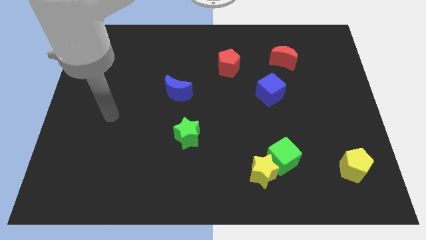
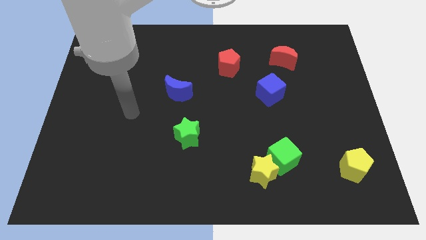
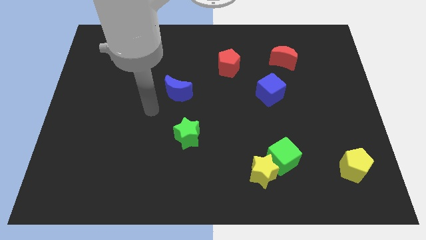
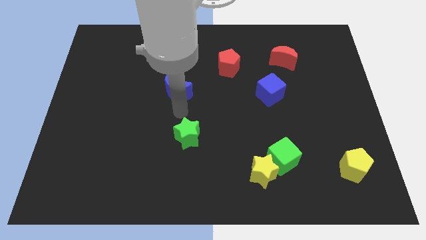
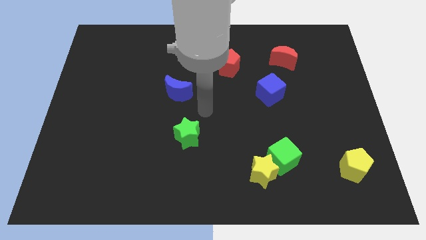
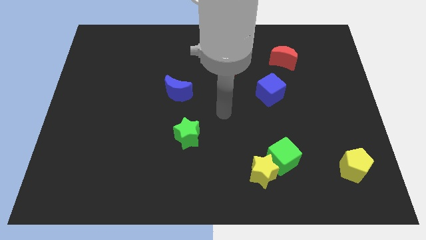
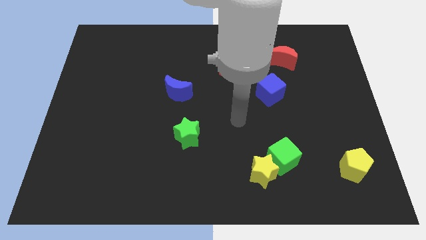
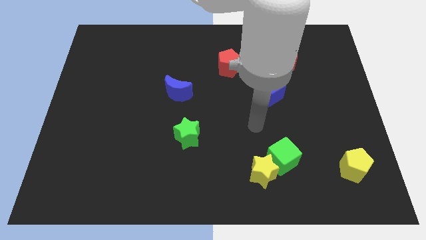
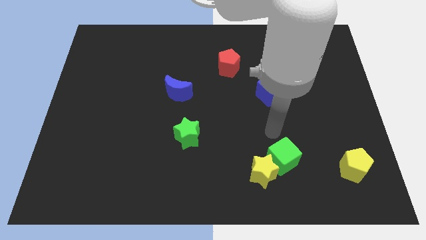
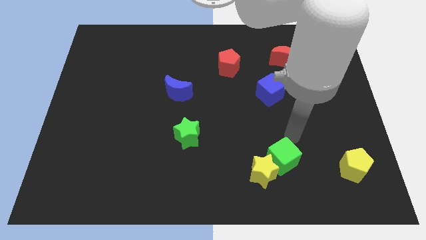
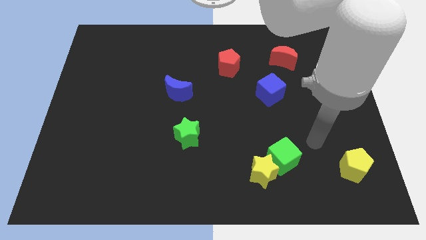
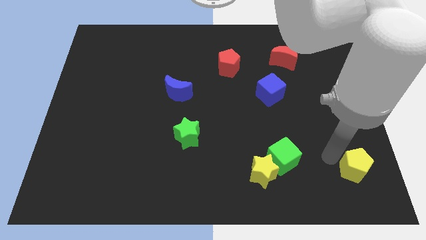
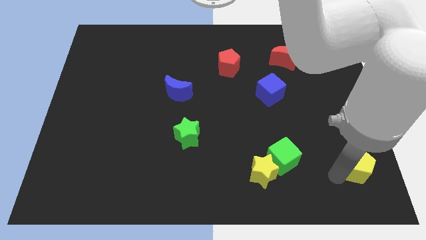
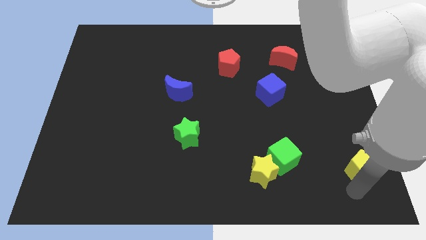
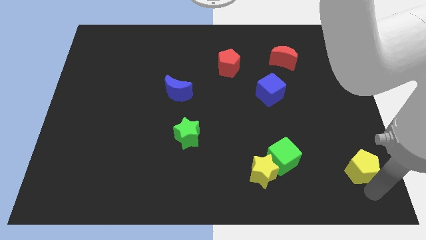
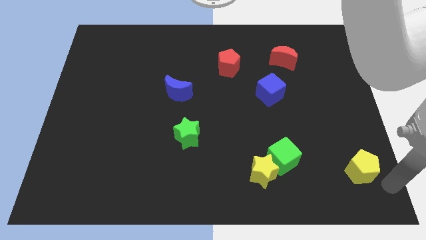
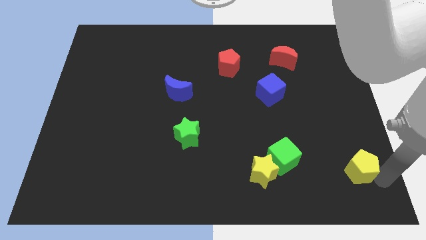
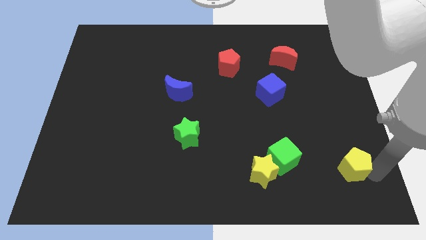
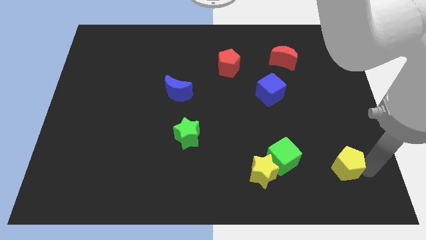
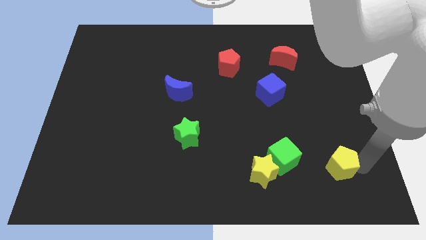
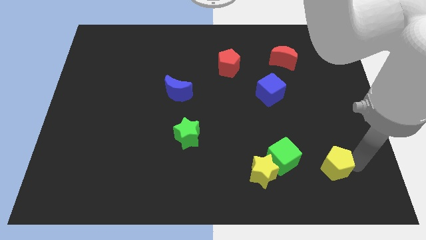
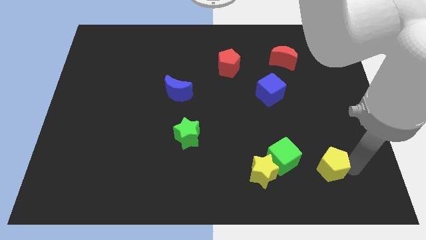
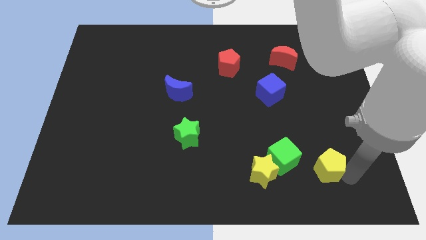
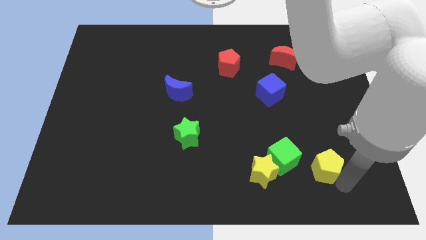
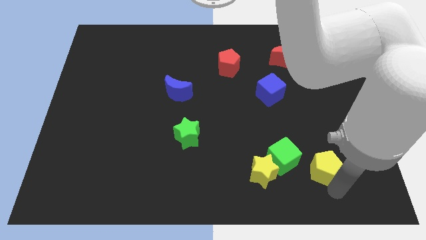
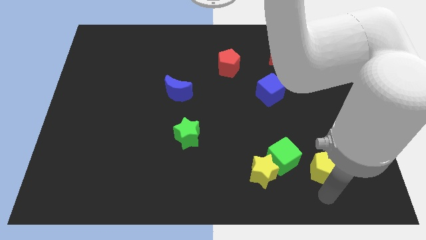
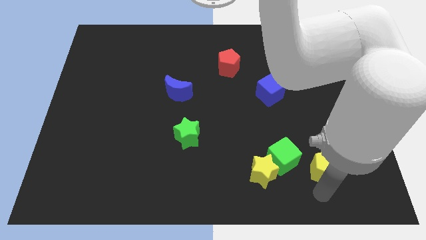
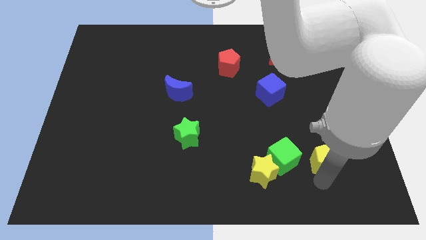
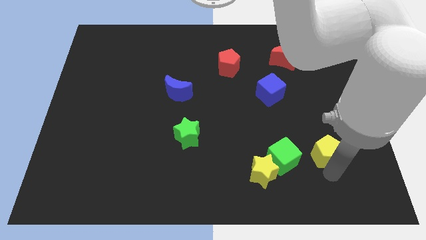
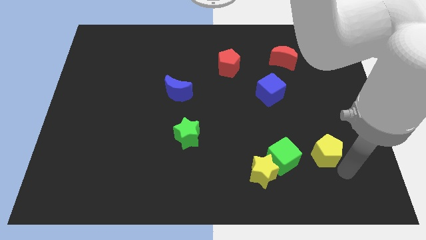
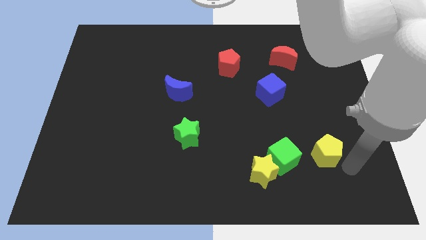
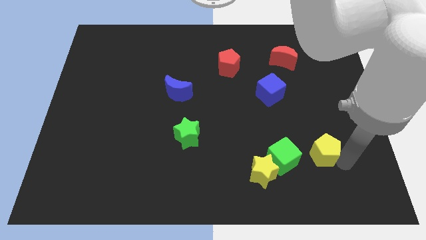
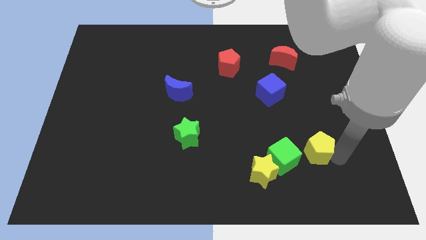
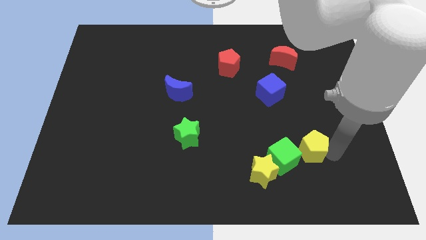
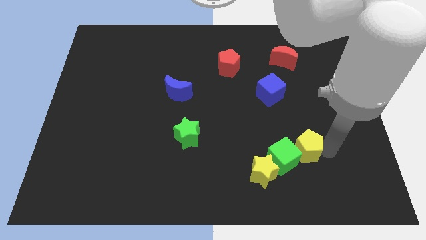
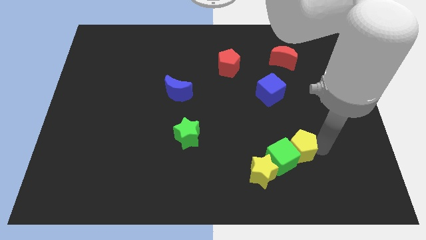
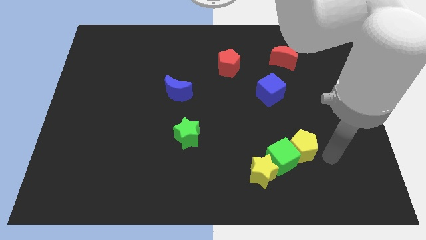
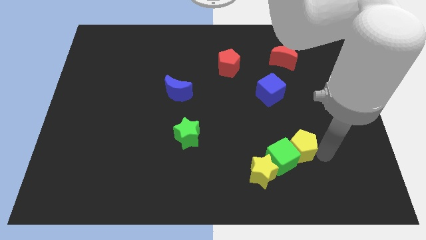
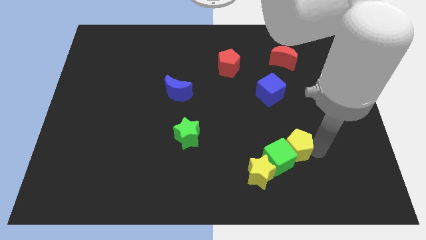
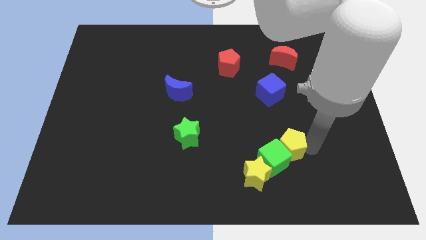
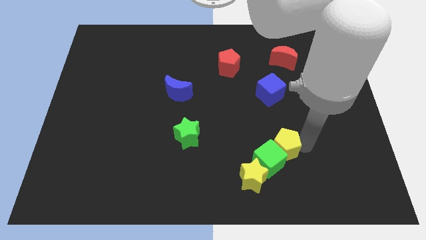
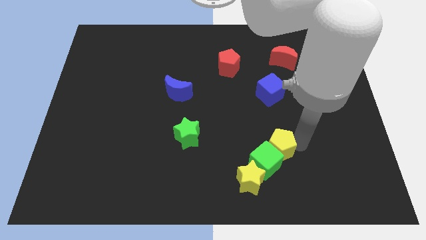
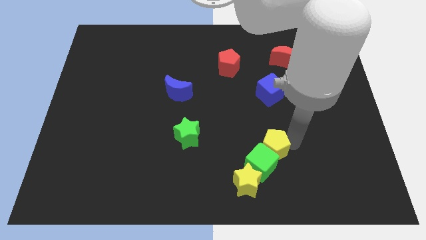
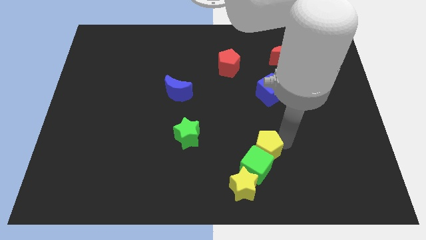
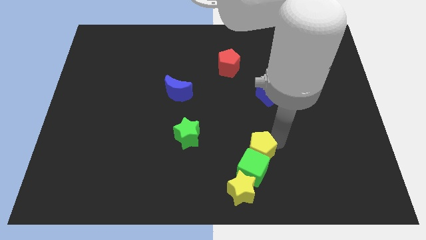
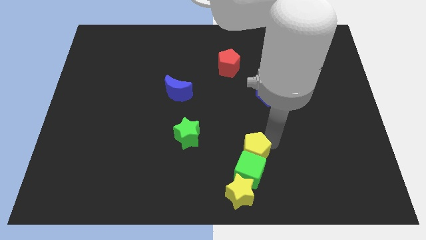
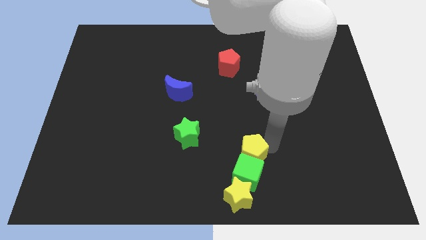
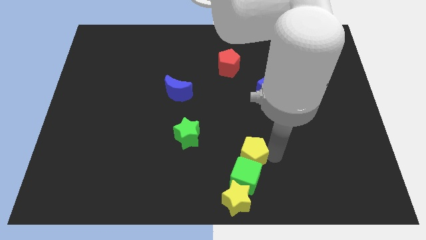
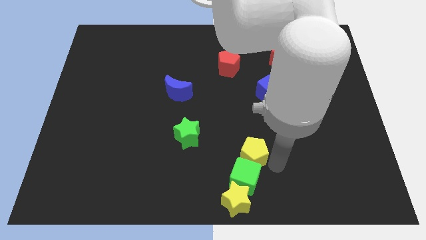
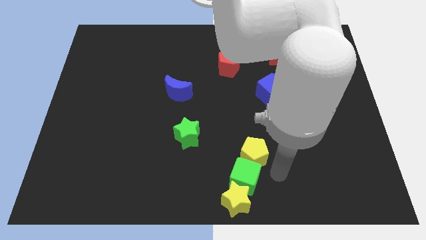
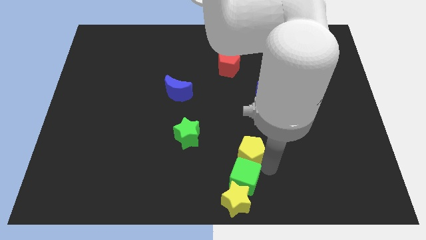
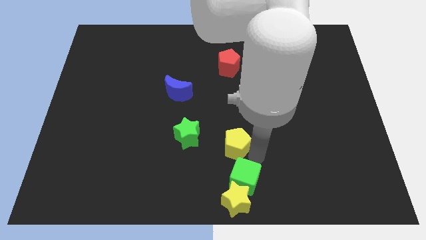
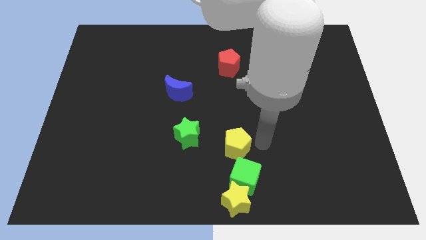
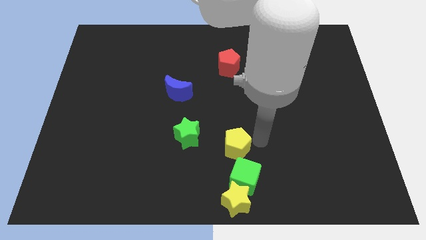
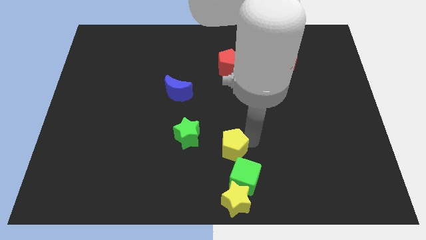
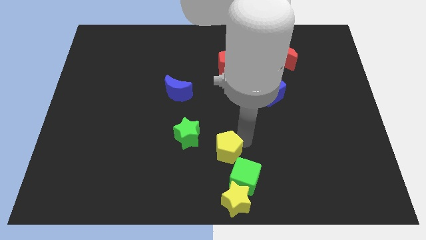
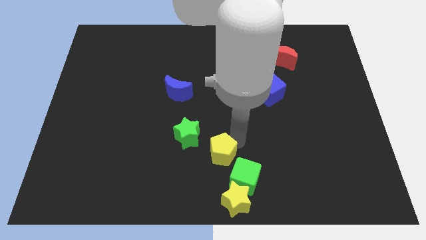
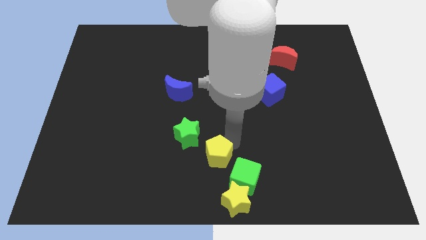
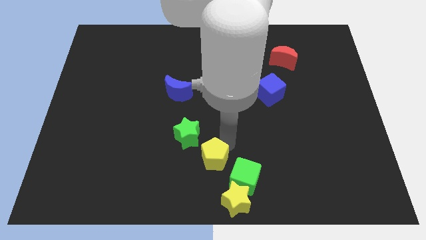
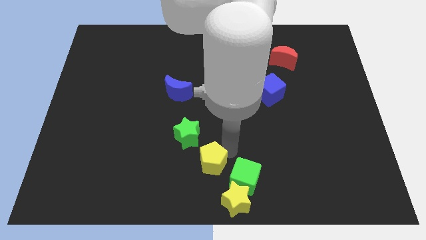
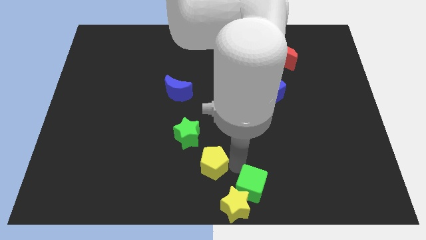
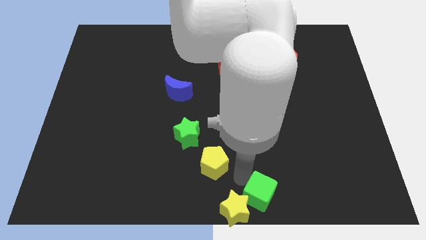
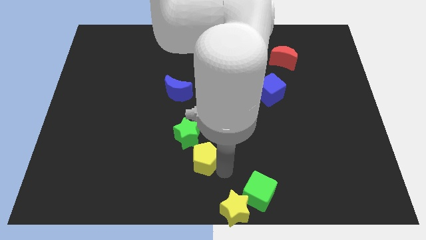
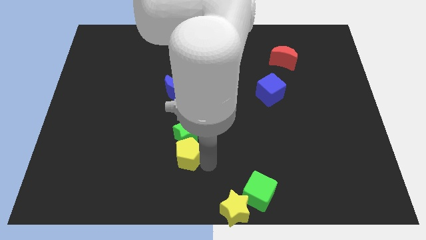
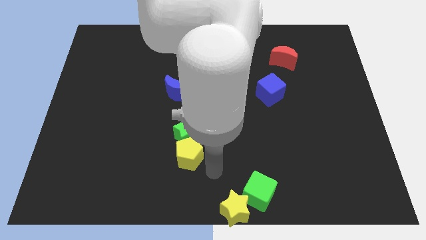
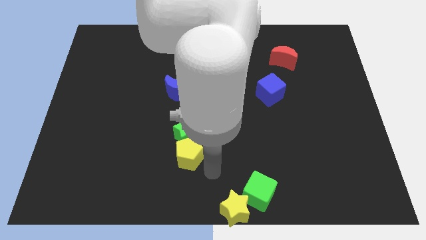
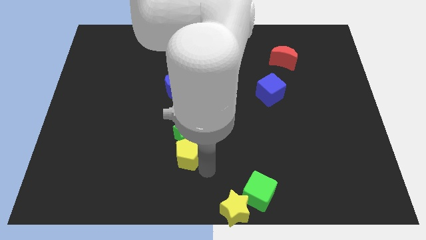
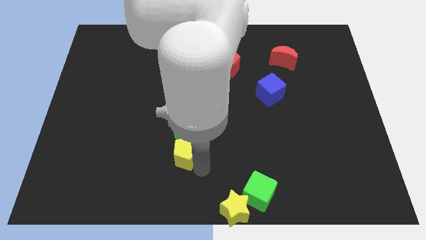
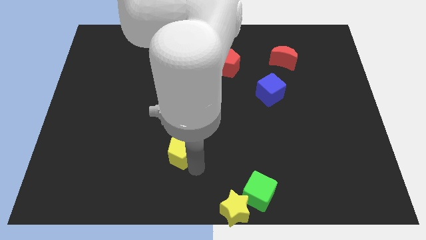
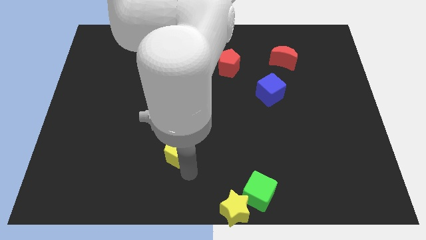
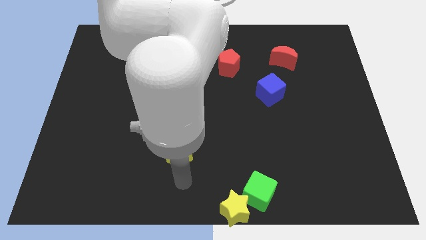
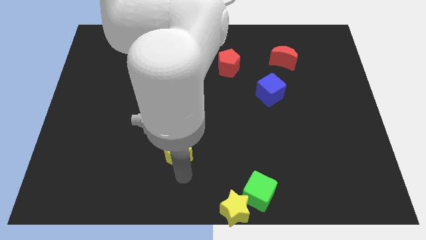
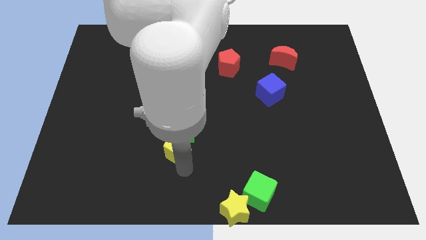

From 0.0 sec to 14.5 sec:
put the yellow pentagon below the blue moon
